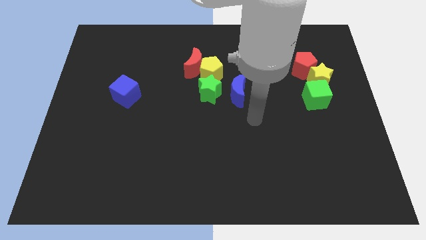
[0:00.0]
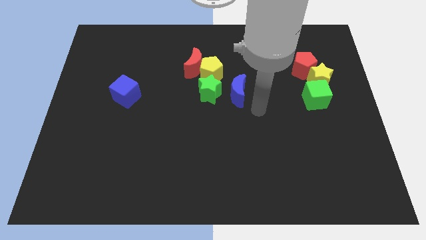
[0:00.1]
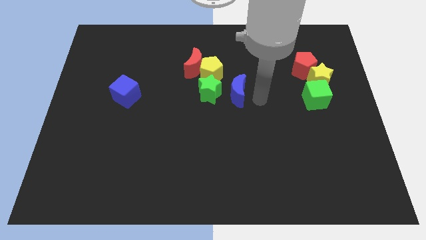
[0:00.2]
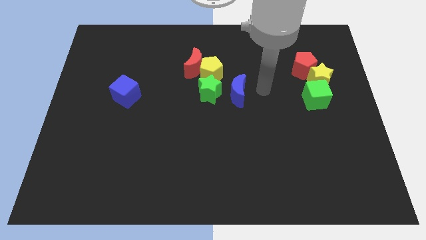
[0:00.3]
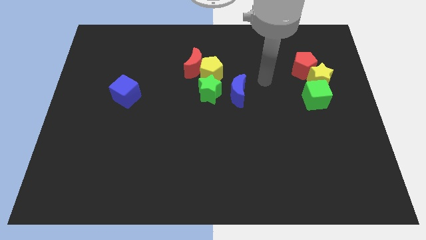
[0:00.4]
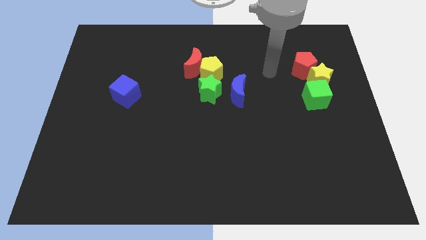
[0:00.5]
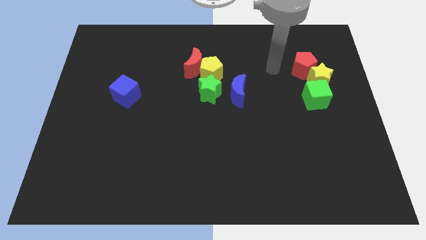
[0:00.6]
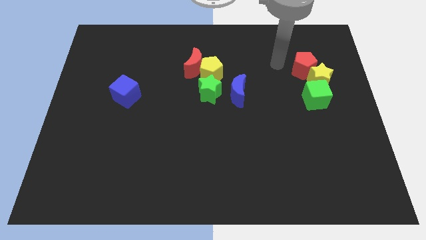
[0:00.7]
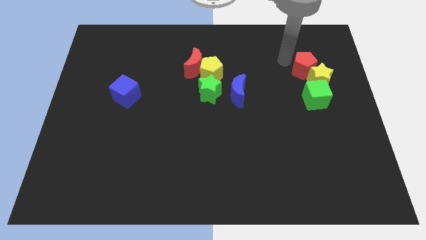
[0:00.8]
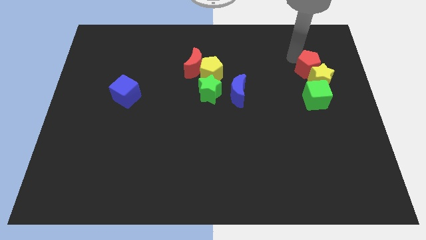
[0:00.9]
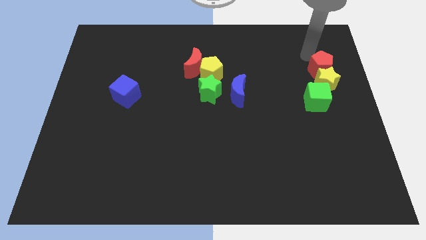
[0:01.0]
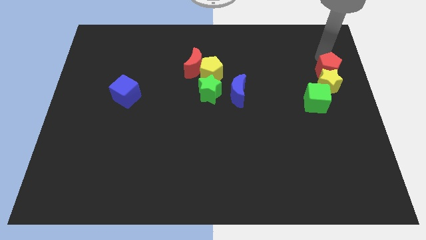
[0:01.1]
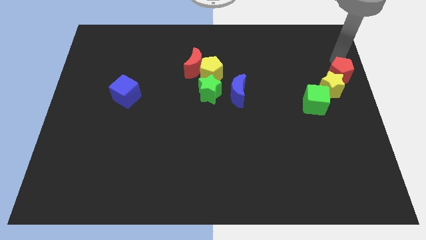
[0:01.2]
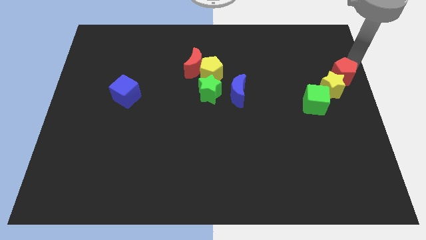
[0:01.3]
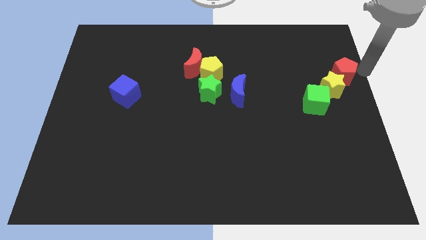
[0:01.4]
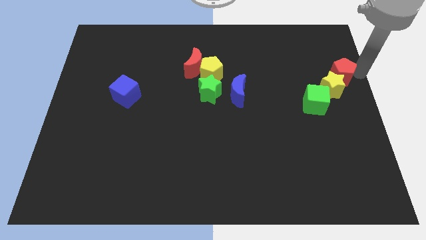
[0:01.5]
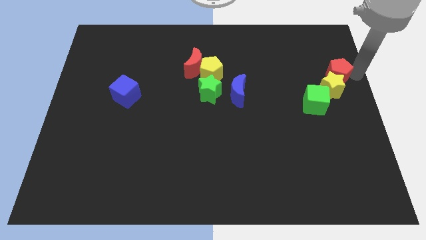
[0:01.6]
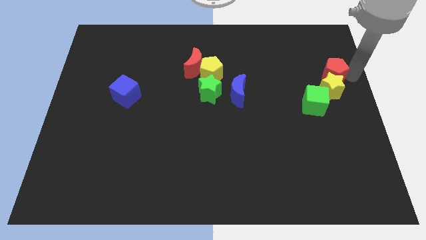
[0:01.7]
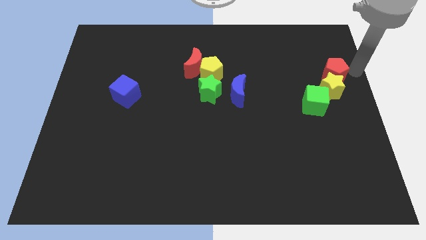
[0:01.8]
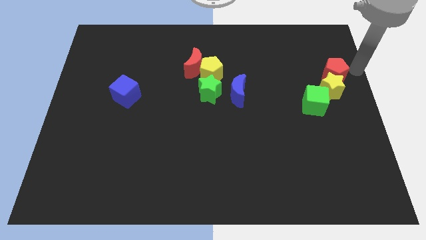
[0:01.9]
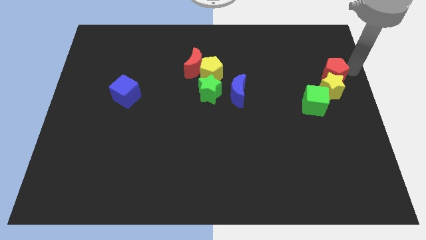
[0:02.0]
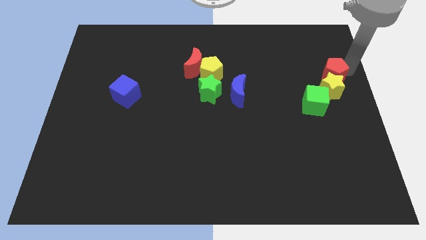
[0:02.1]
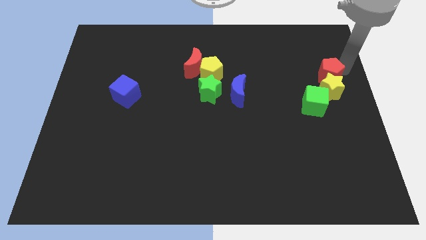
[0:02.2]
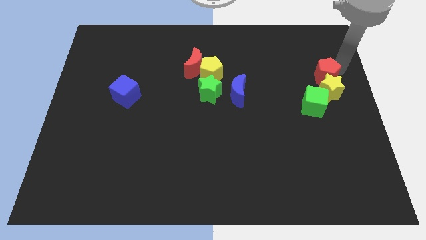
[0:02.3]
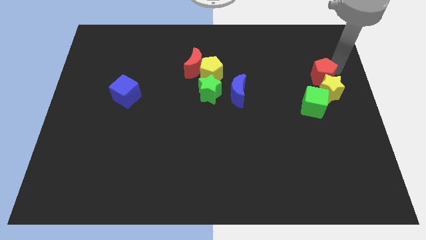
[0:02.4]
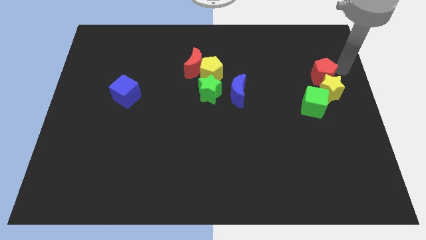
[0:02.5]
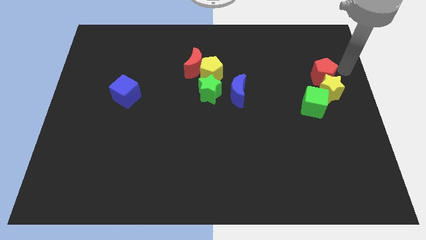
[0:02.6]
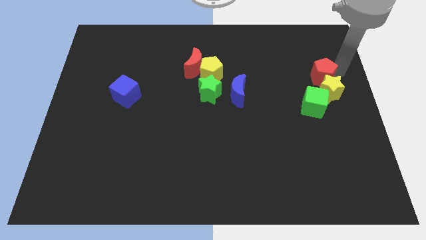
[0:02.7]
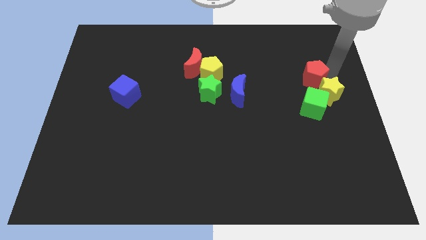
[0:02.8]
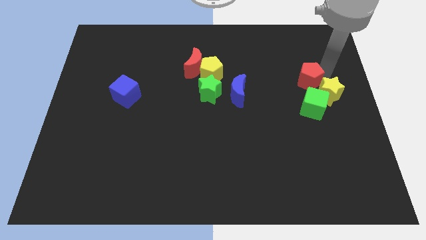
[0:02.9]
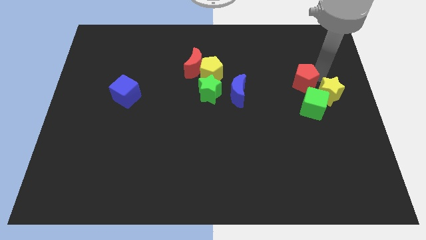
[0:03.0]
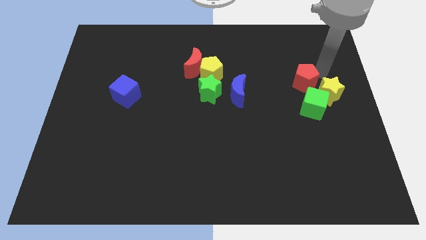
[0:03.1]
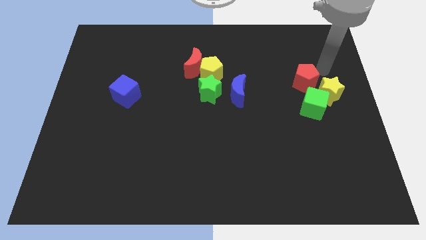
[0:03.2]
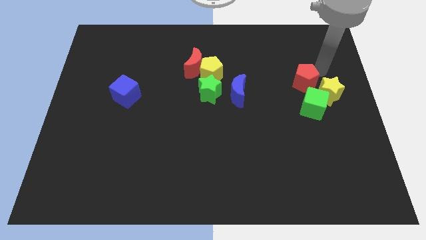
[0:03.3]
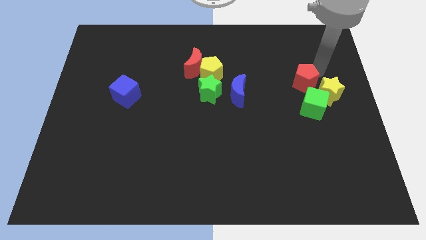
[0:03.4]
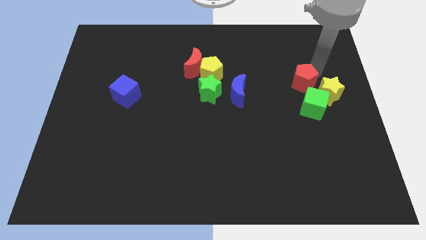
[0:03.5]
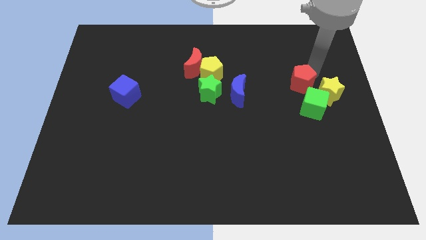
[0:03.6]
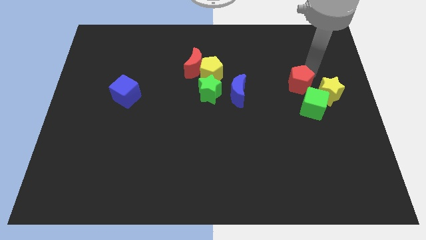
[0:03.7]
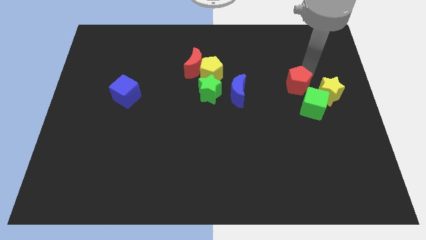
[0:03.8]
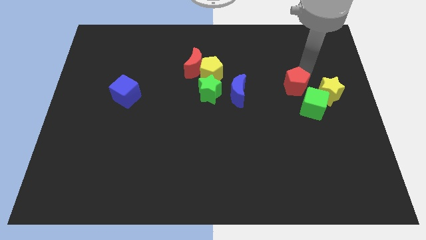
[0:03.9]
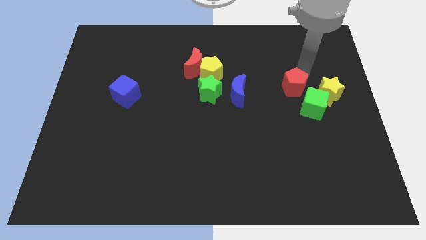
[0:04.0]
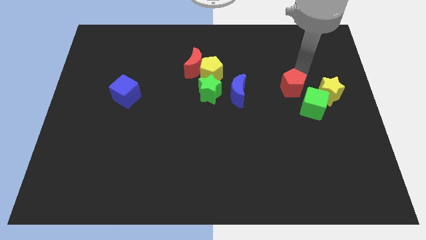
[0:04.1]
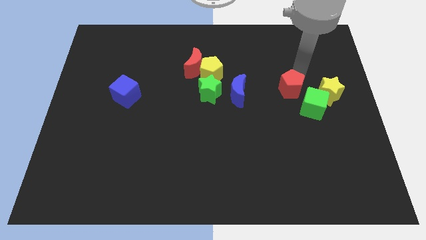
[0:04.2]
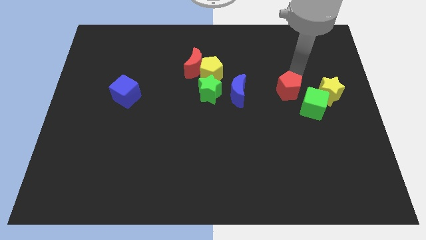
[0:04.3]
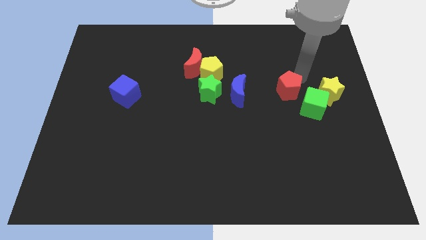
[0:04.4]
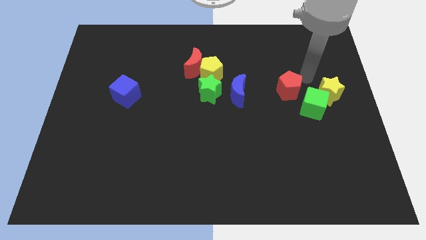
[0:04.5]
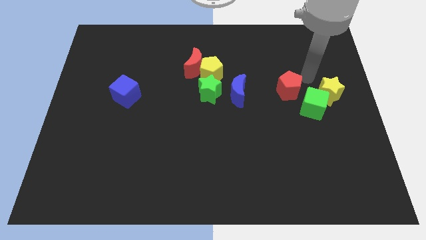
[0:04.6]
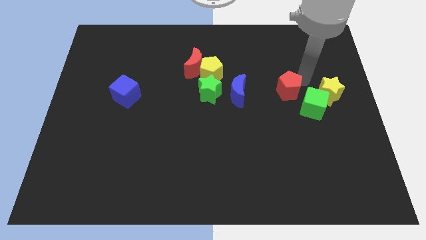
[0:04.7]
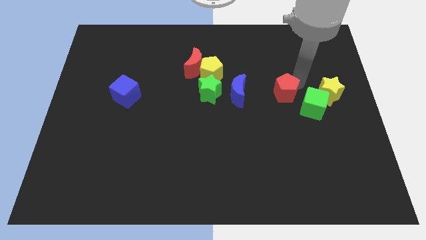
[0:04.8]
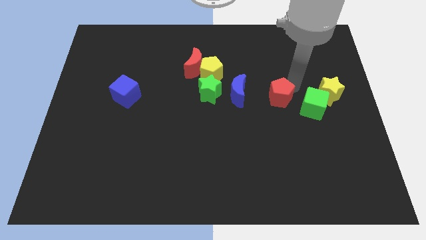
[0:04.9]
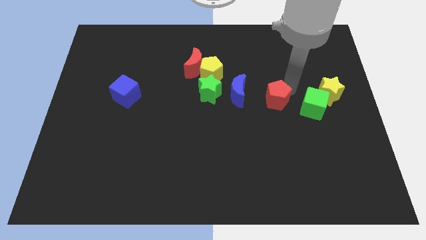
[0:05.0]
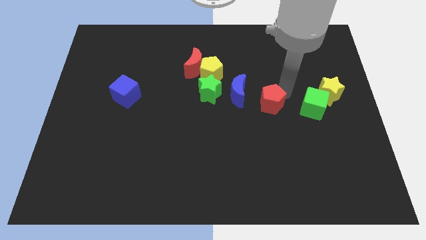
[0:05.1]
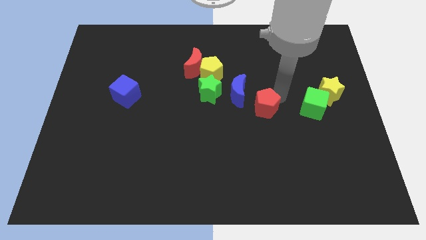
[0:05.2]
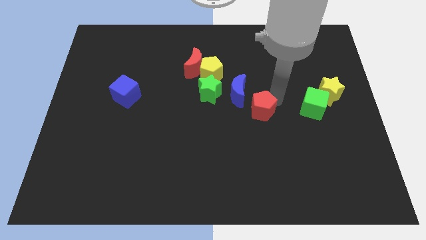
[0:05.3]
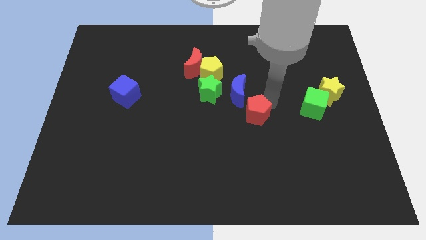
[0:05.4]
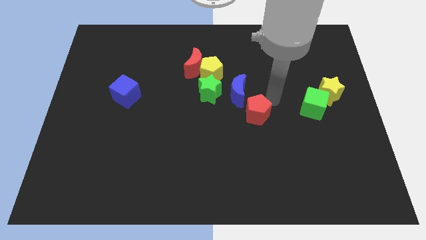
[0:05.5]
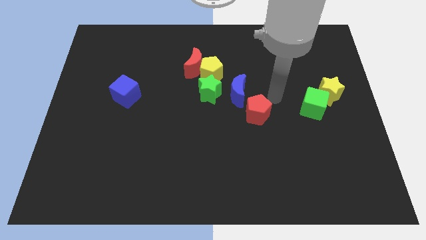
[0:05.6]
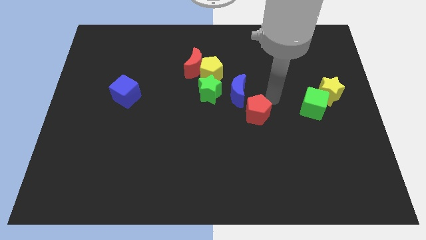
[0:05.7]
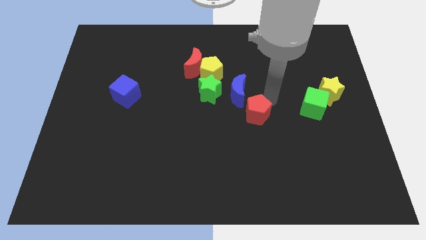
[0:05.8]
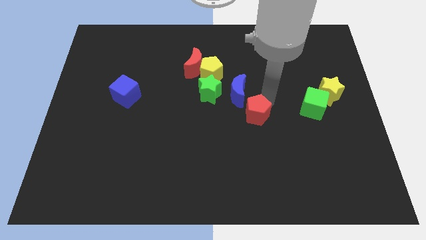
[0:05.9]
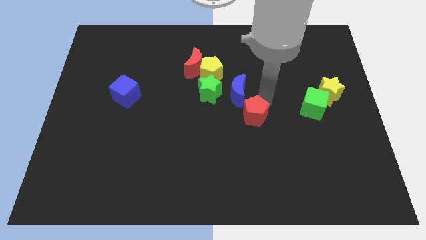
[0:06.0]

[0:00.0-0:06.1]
push the red pentagon down and then to the left

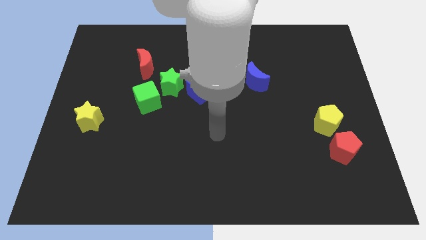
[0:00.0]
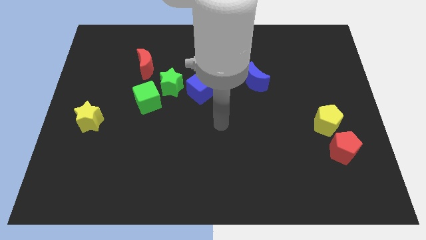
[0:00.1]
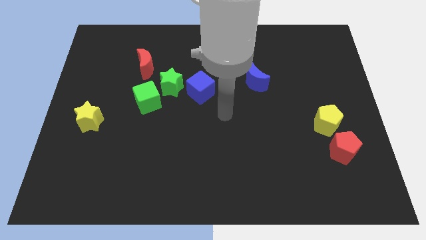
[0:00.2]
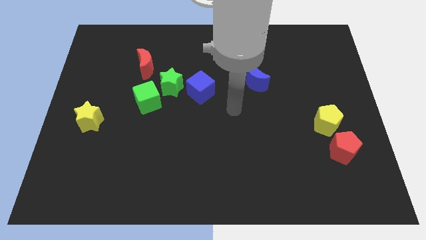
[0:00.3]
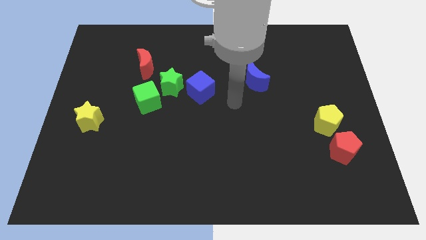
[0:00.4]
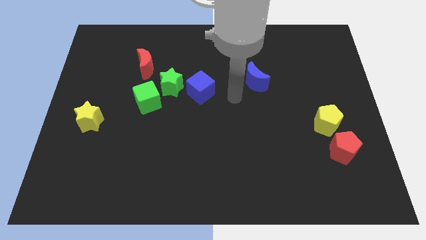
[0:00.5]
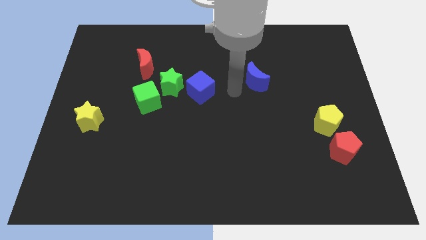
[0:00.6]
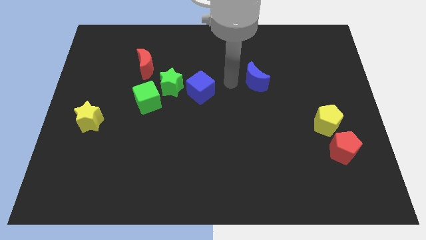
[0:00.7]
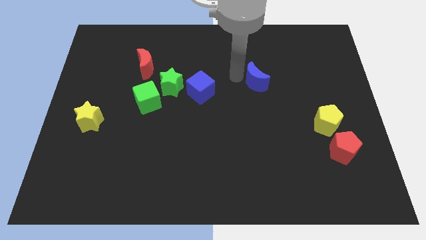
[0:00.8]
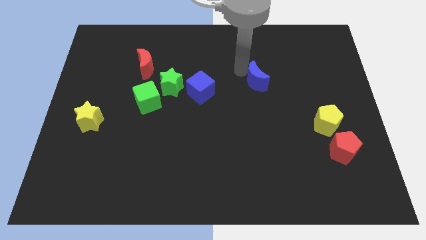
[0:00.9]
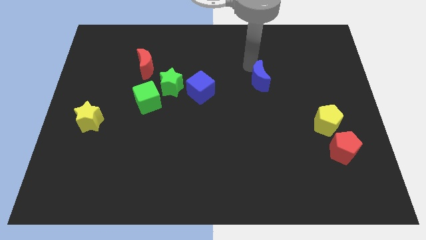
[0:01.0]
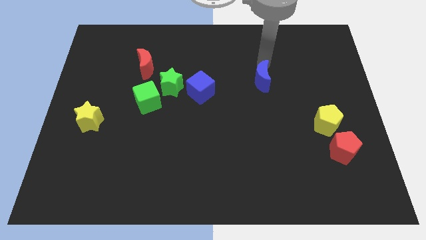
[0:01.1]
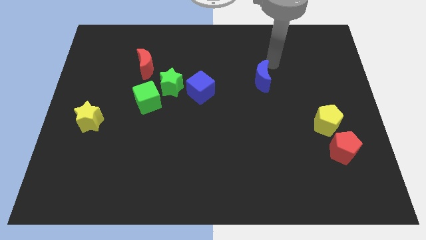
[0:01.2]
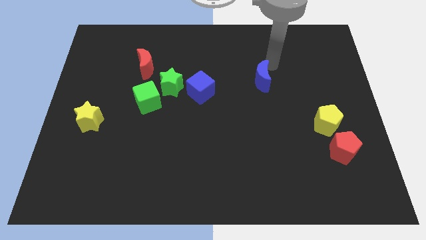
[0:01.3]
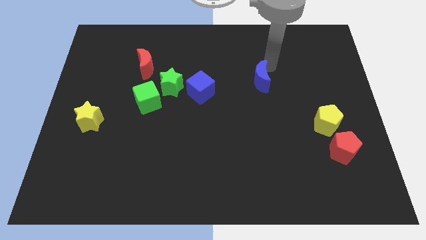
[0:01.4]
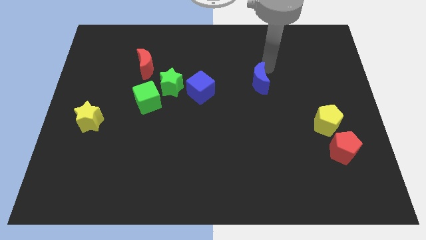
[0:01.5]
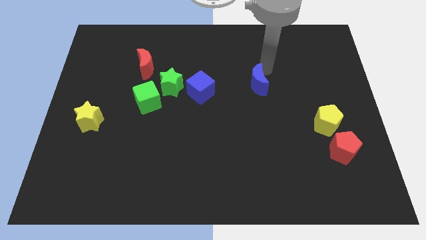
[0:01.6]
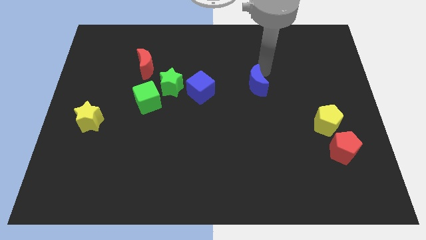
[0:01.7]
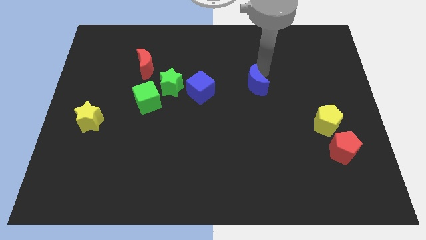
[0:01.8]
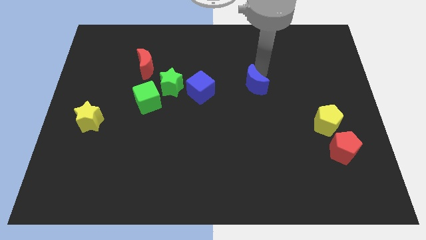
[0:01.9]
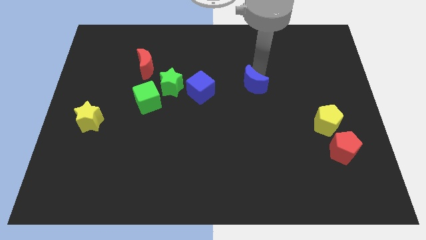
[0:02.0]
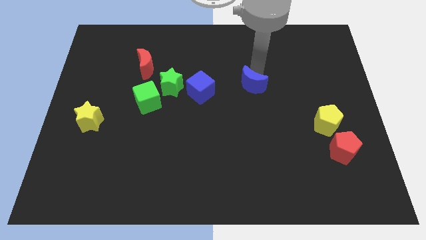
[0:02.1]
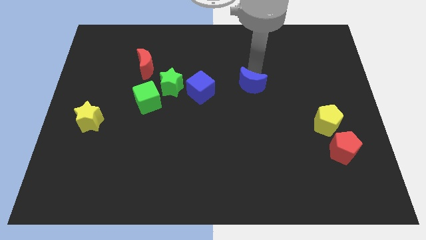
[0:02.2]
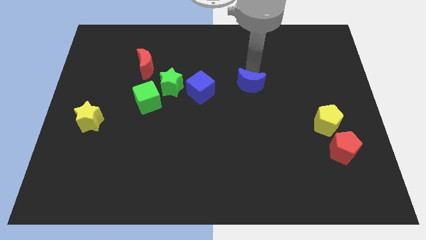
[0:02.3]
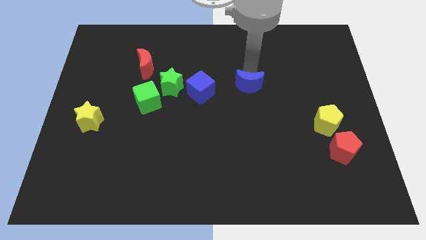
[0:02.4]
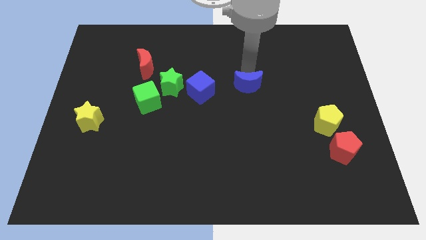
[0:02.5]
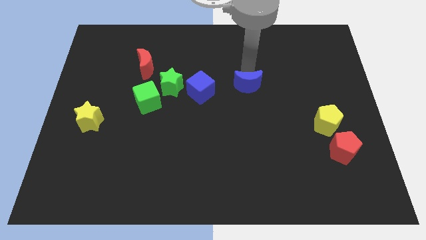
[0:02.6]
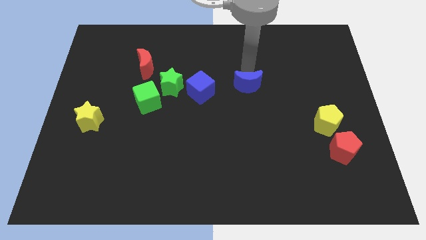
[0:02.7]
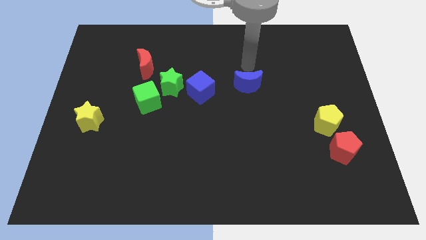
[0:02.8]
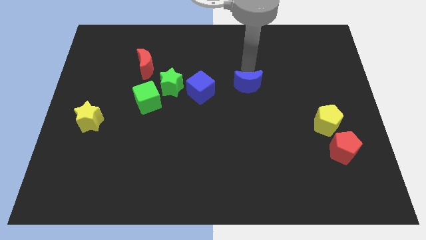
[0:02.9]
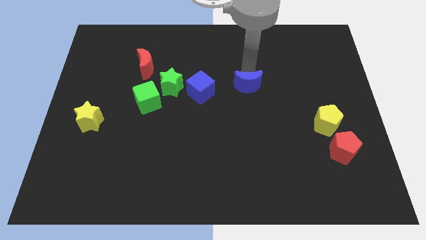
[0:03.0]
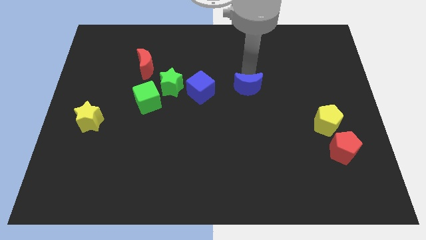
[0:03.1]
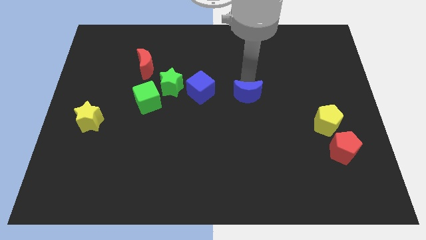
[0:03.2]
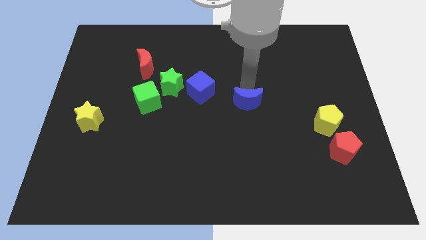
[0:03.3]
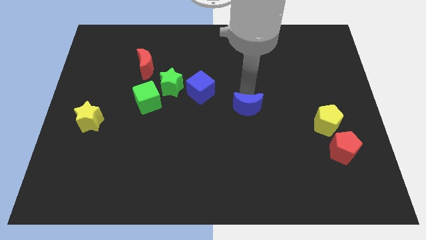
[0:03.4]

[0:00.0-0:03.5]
move the blue moon somewhat down
